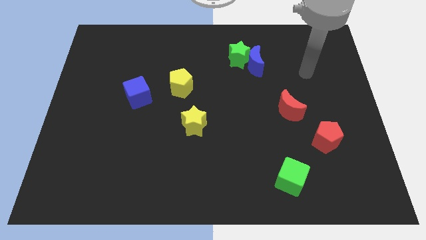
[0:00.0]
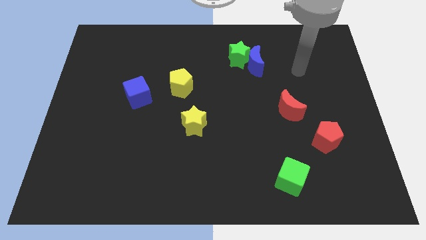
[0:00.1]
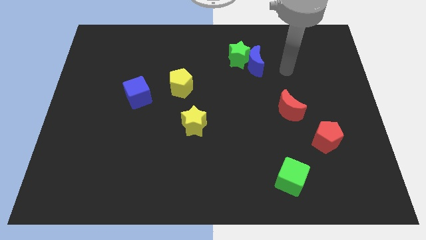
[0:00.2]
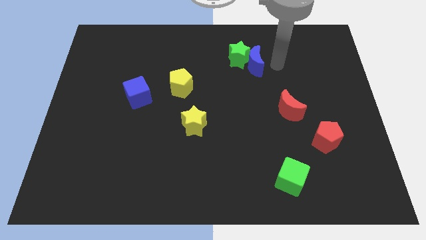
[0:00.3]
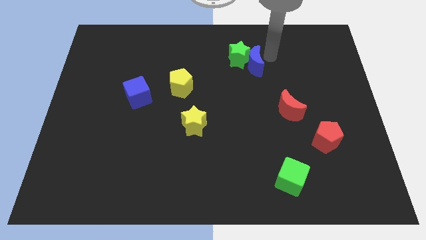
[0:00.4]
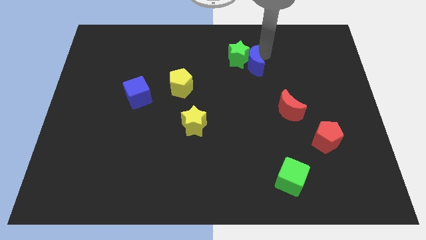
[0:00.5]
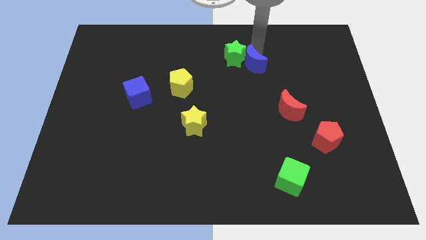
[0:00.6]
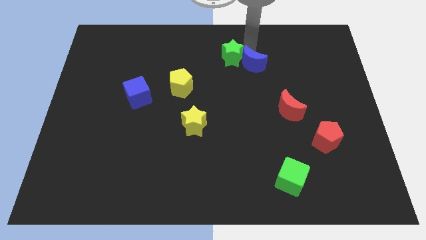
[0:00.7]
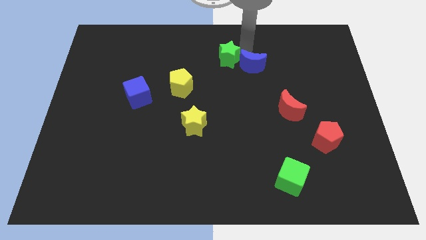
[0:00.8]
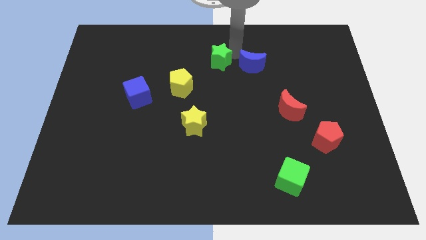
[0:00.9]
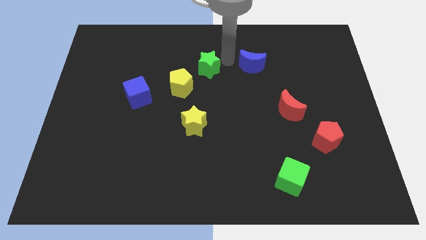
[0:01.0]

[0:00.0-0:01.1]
pull the blue moon apart from the green star

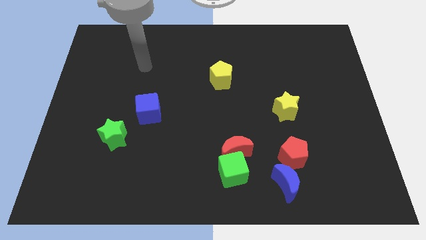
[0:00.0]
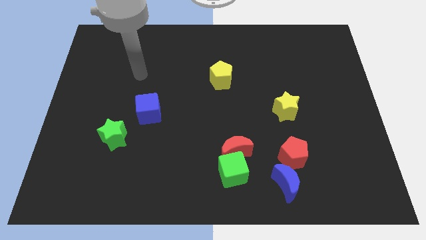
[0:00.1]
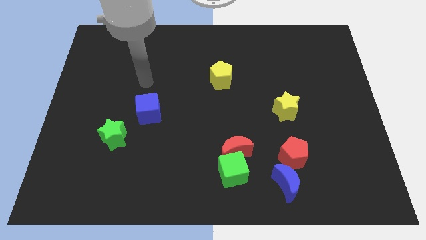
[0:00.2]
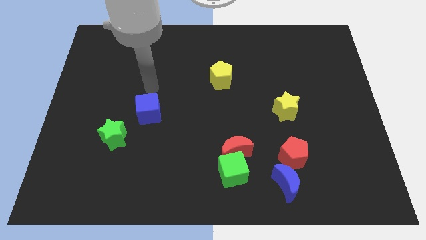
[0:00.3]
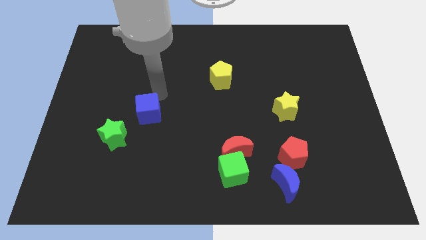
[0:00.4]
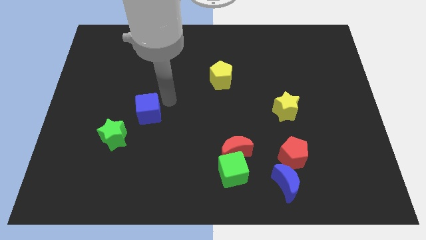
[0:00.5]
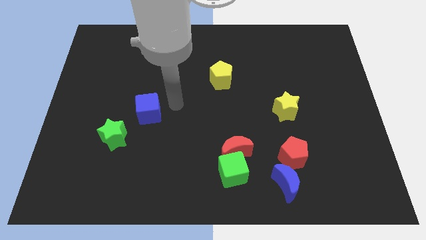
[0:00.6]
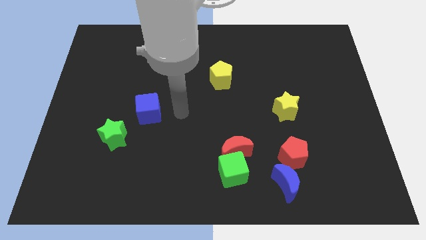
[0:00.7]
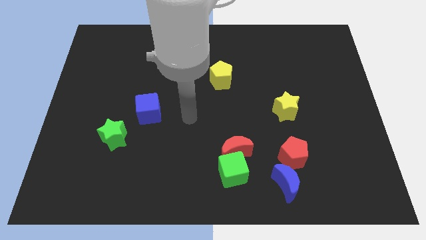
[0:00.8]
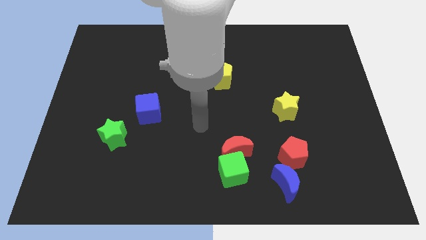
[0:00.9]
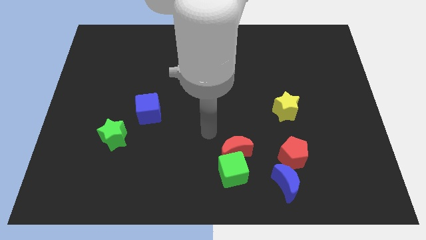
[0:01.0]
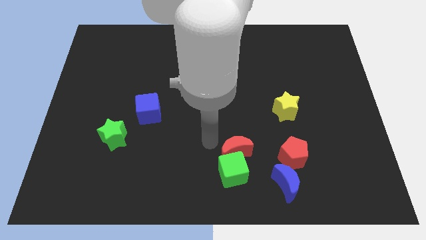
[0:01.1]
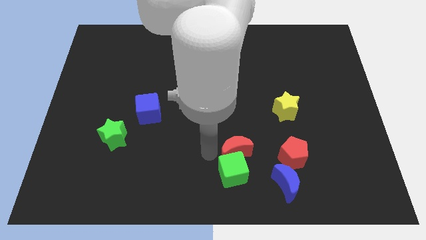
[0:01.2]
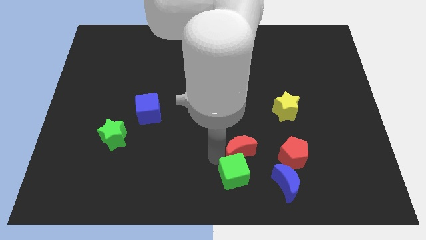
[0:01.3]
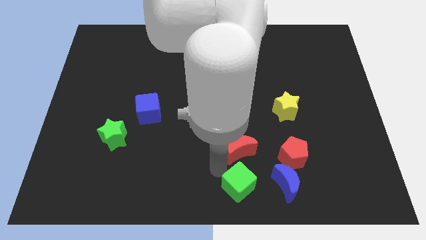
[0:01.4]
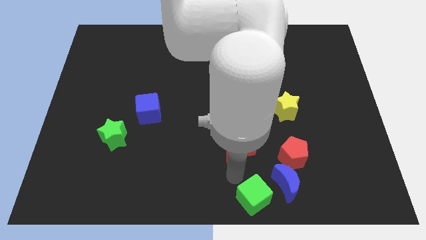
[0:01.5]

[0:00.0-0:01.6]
pull the red moon apart from the green cube

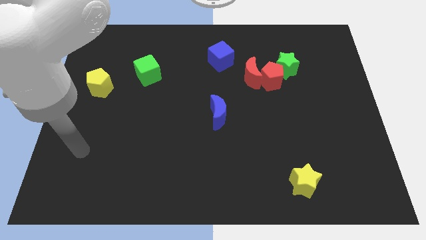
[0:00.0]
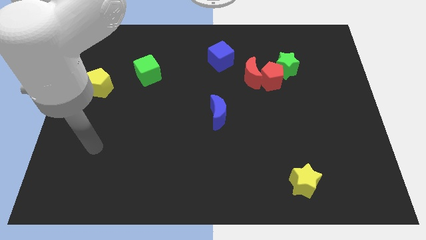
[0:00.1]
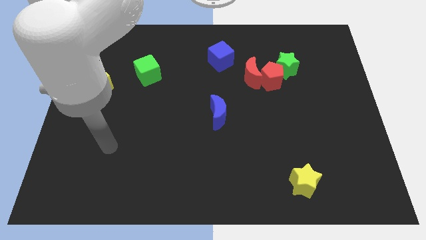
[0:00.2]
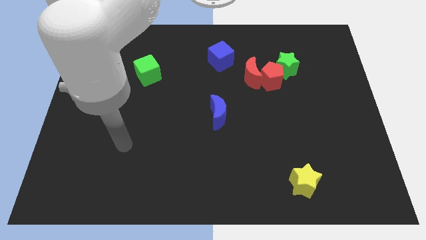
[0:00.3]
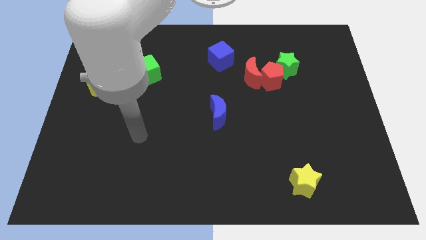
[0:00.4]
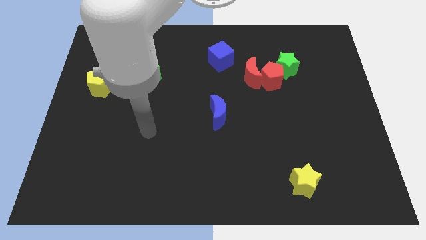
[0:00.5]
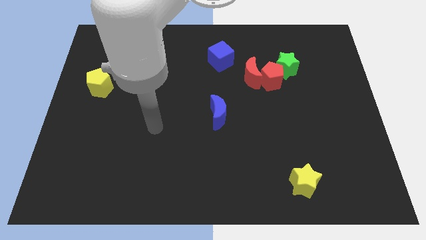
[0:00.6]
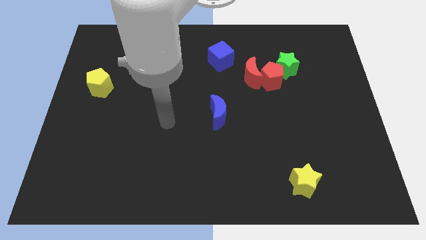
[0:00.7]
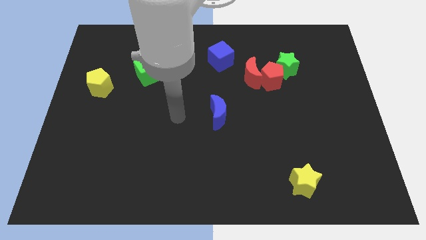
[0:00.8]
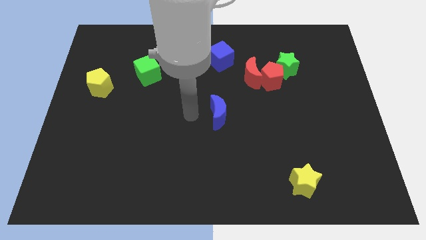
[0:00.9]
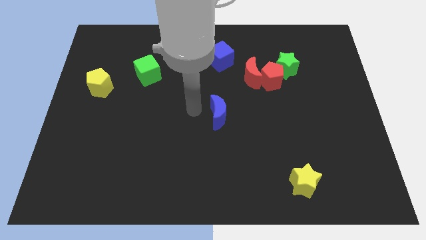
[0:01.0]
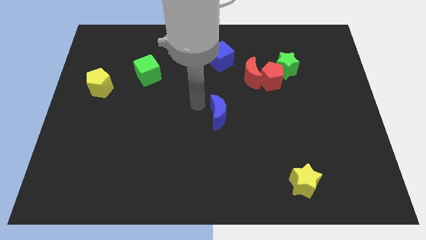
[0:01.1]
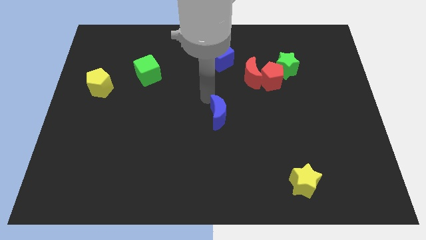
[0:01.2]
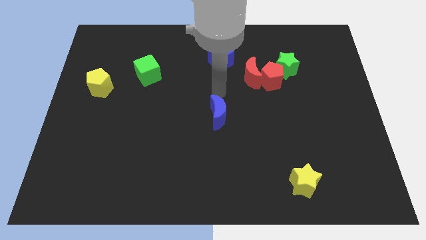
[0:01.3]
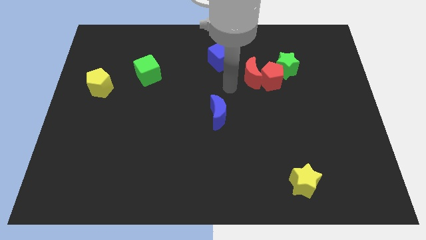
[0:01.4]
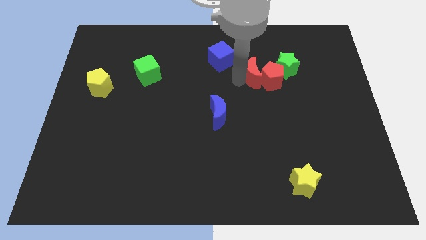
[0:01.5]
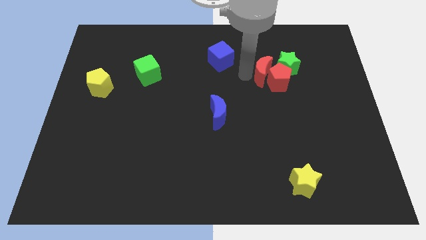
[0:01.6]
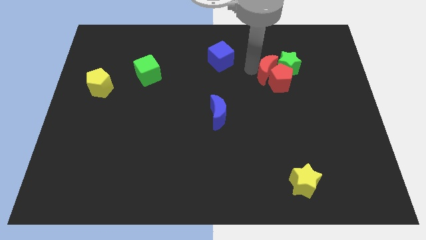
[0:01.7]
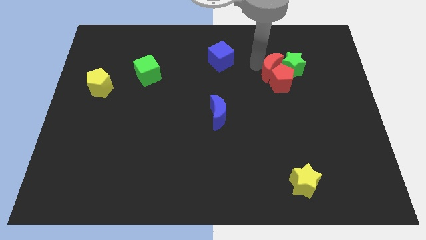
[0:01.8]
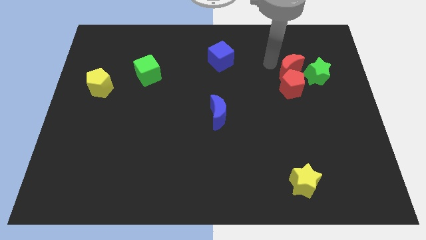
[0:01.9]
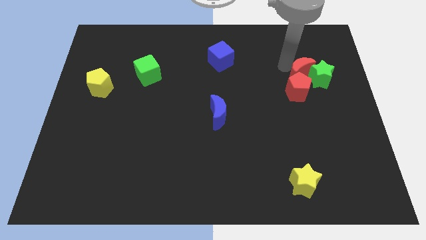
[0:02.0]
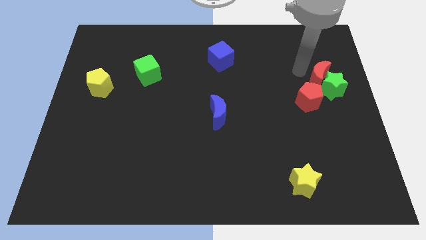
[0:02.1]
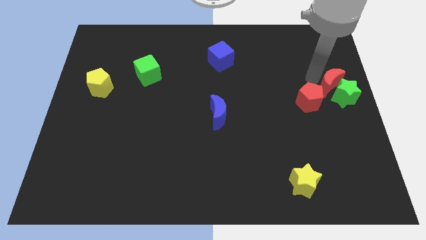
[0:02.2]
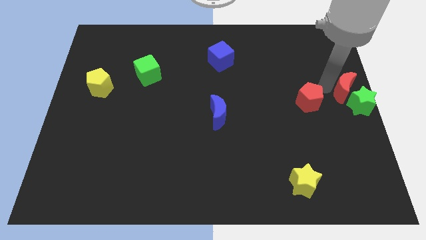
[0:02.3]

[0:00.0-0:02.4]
pull the red pentagon apart from the green star and red moon

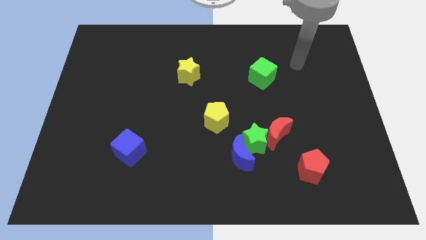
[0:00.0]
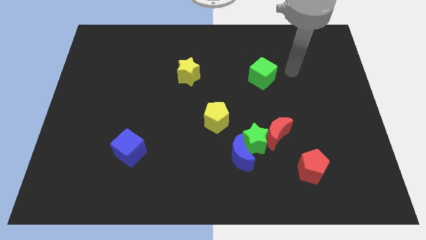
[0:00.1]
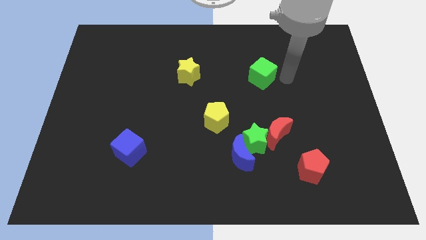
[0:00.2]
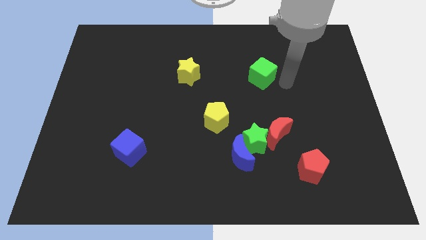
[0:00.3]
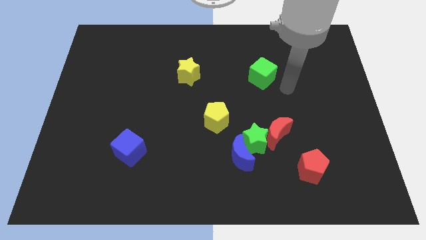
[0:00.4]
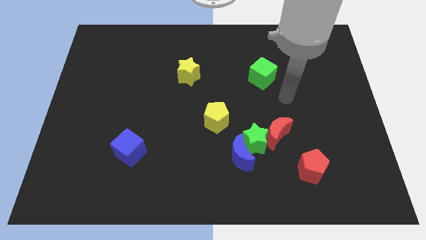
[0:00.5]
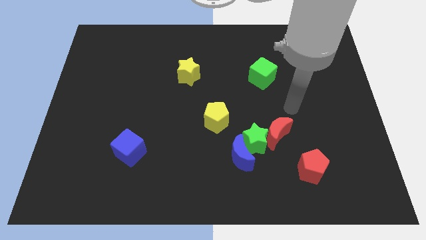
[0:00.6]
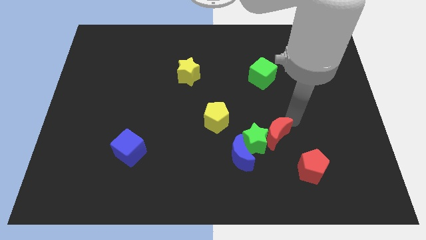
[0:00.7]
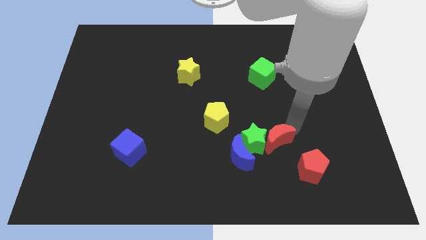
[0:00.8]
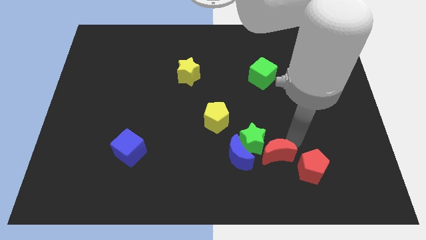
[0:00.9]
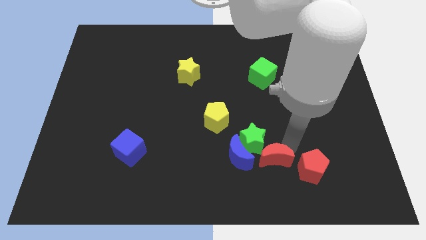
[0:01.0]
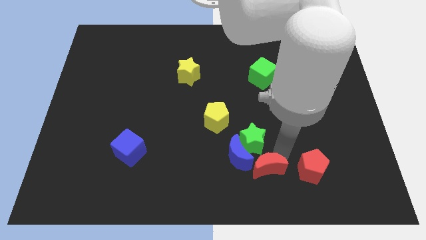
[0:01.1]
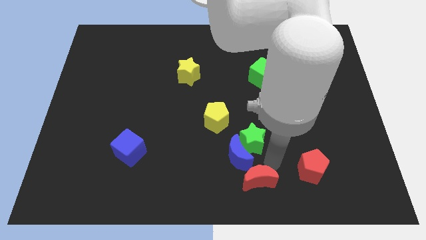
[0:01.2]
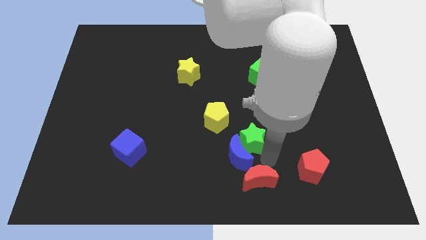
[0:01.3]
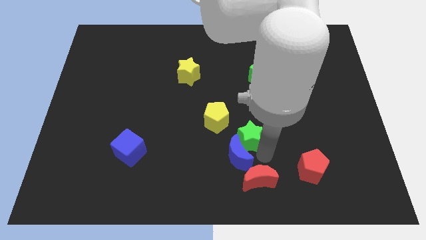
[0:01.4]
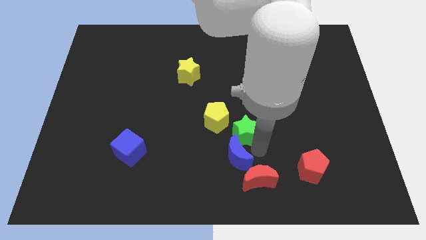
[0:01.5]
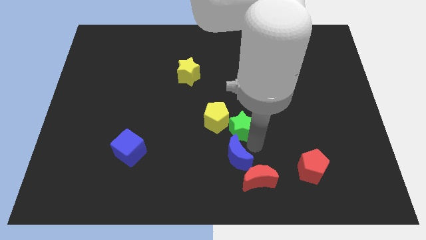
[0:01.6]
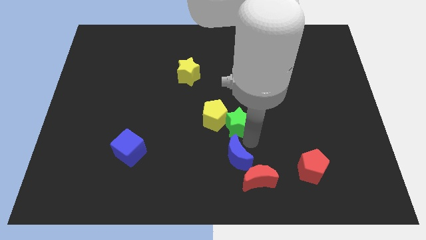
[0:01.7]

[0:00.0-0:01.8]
separate the green star from the blue moon and red moon

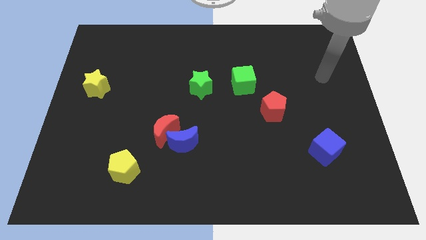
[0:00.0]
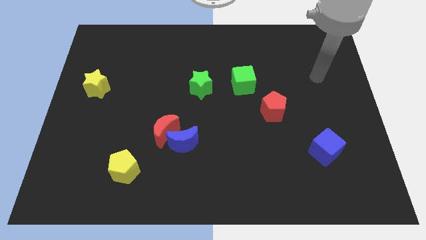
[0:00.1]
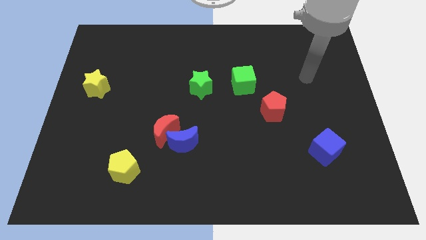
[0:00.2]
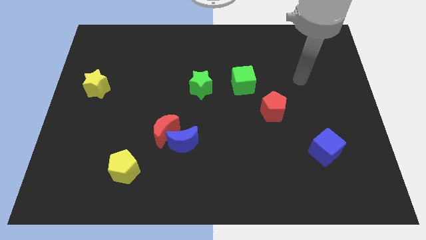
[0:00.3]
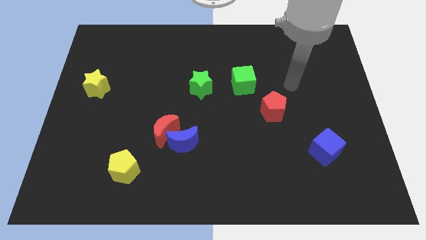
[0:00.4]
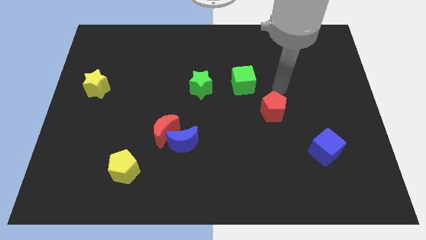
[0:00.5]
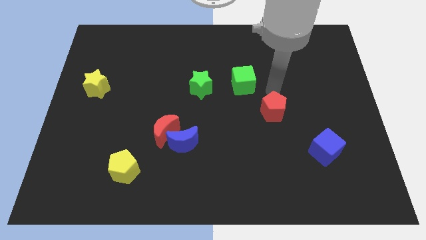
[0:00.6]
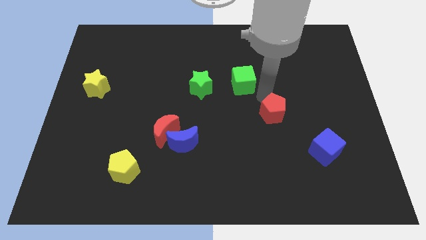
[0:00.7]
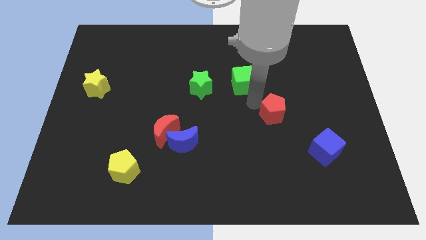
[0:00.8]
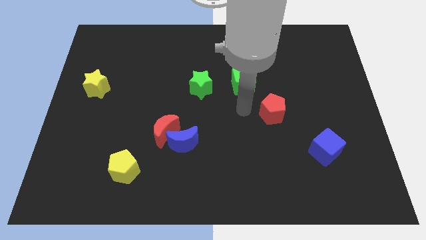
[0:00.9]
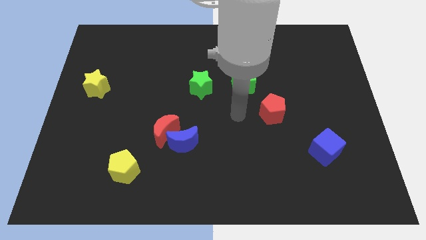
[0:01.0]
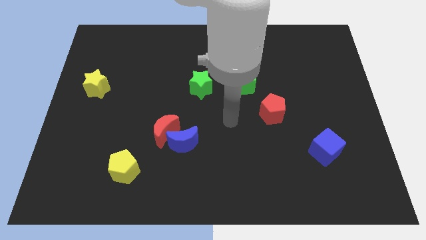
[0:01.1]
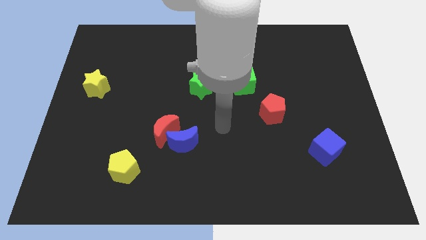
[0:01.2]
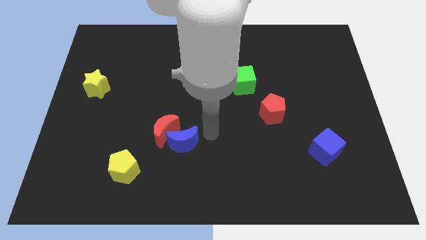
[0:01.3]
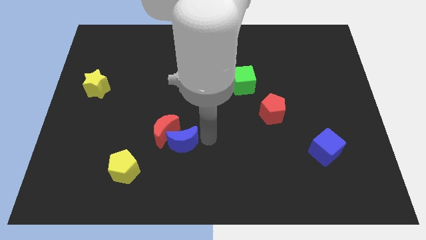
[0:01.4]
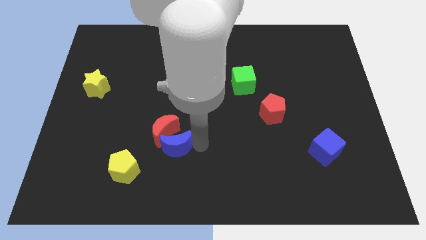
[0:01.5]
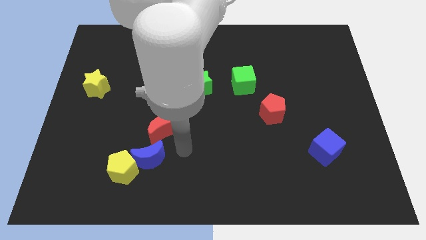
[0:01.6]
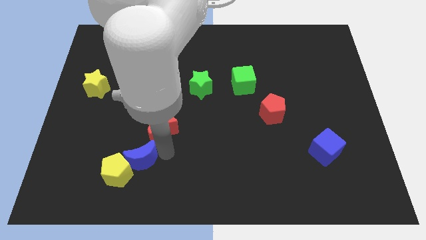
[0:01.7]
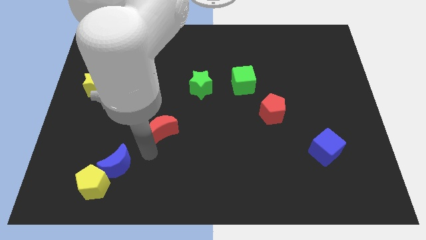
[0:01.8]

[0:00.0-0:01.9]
pull the red moon apart from the blue moon

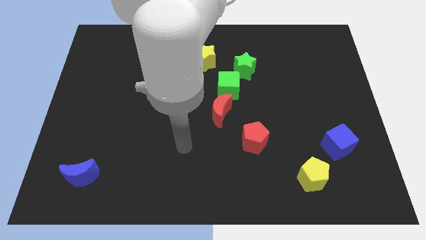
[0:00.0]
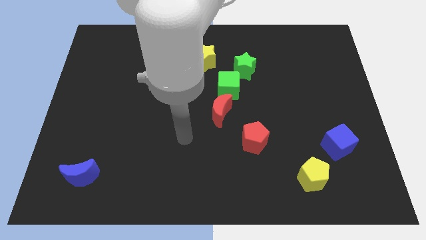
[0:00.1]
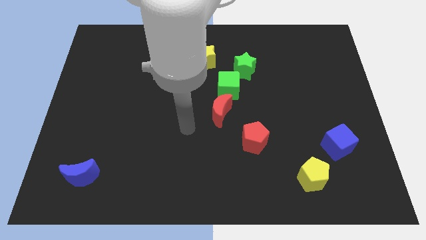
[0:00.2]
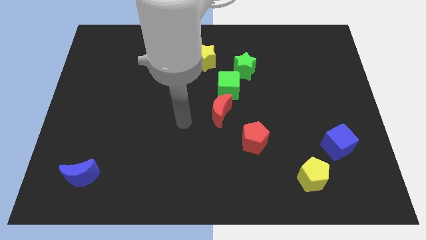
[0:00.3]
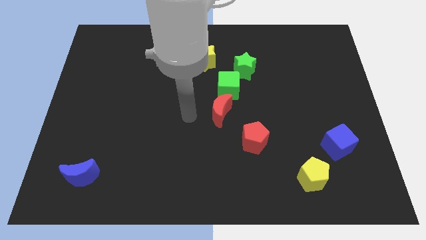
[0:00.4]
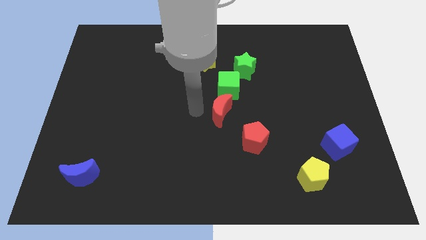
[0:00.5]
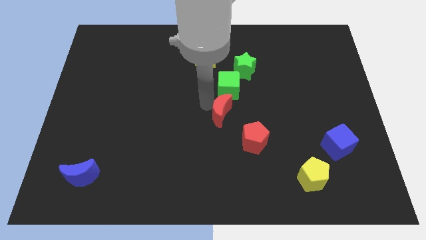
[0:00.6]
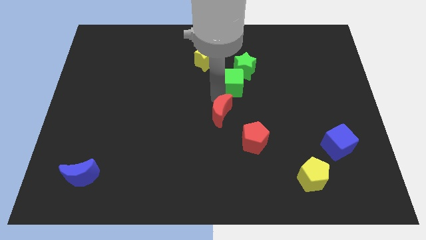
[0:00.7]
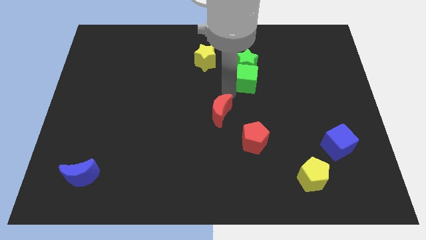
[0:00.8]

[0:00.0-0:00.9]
move the red moon away from the green cube
